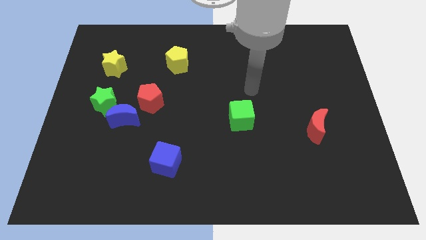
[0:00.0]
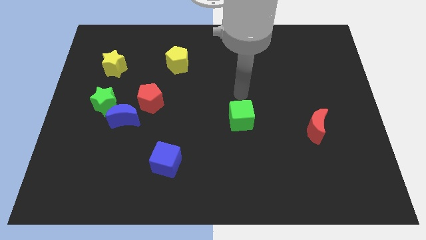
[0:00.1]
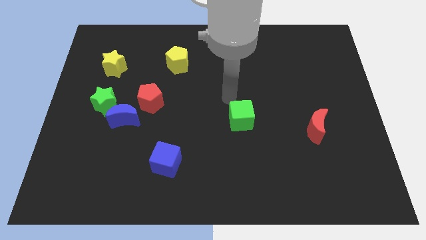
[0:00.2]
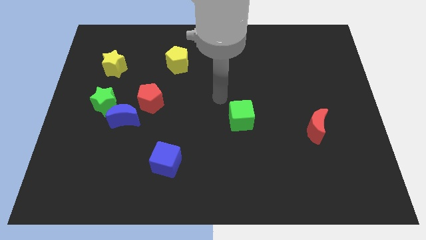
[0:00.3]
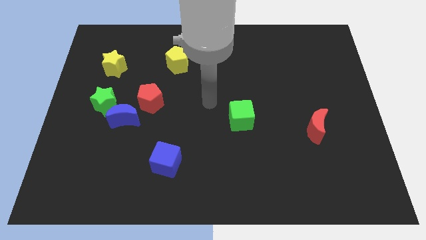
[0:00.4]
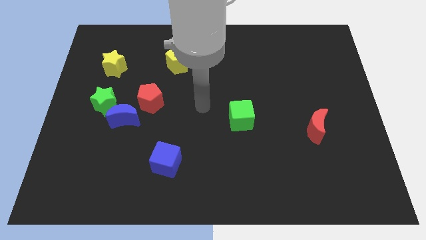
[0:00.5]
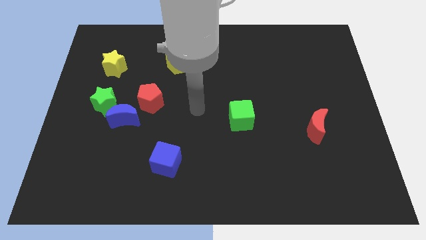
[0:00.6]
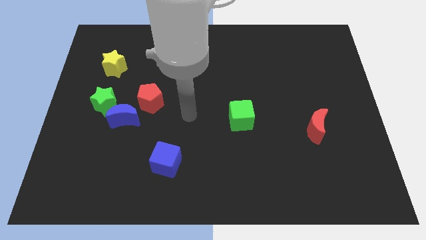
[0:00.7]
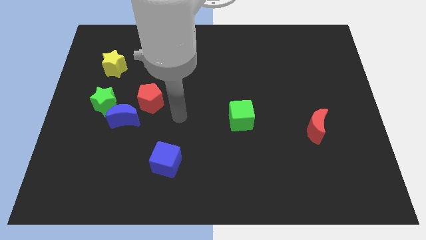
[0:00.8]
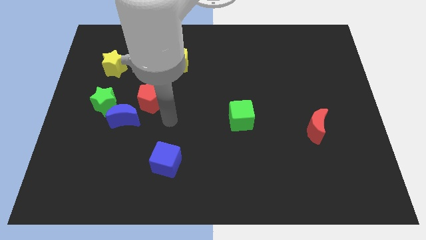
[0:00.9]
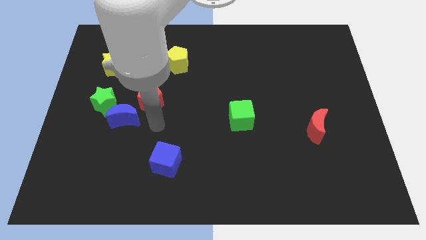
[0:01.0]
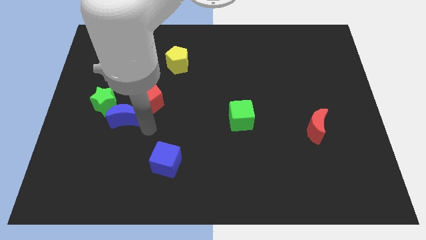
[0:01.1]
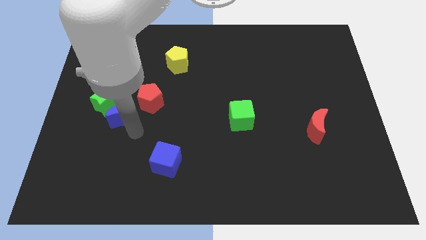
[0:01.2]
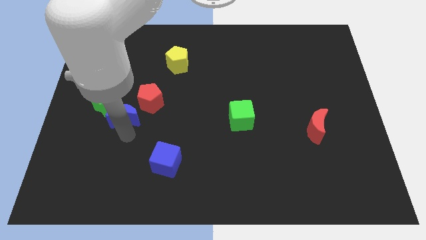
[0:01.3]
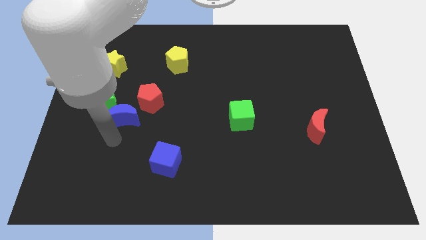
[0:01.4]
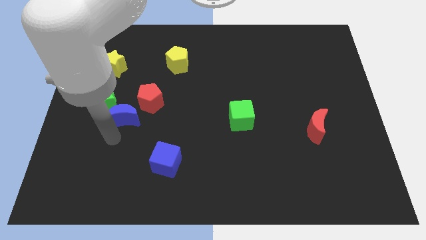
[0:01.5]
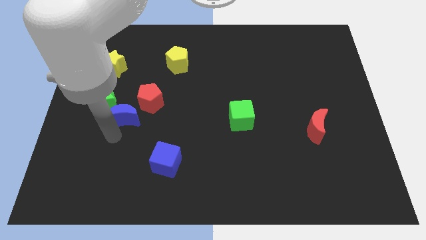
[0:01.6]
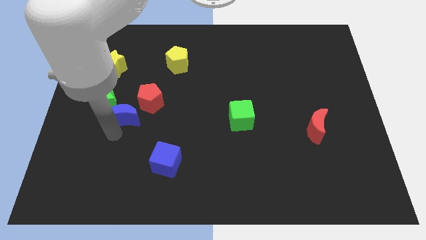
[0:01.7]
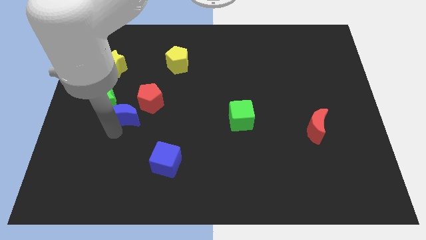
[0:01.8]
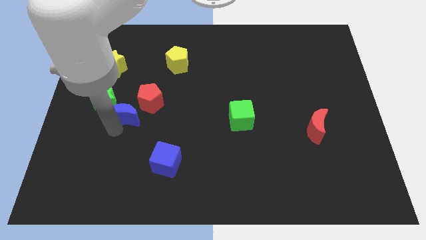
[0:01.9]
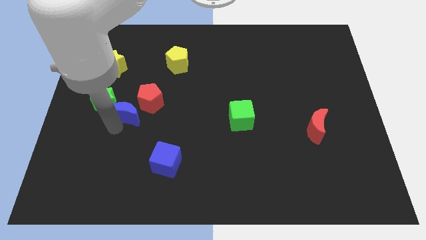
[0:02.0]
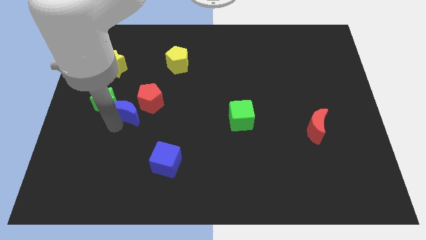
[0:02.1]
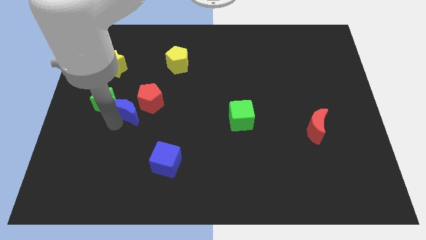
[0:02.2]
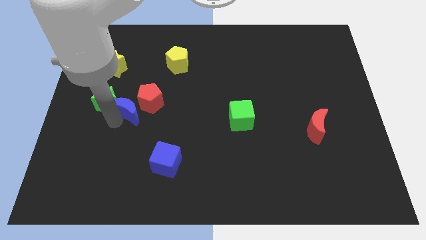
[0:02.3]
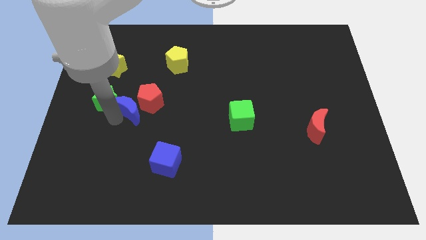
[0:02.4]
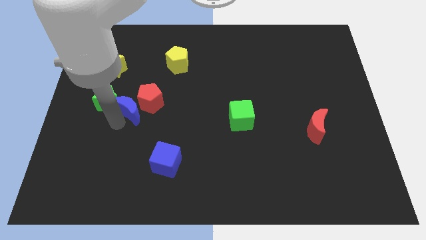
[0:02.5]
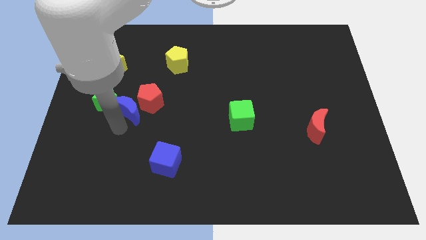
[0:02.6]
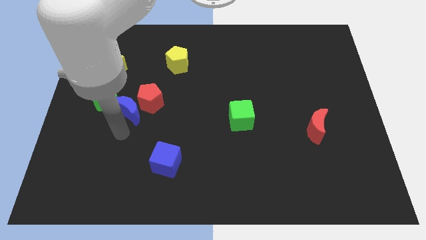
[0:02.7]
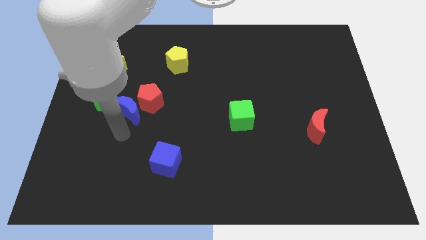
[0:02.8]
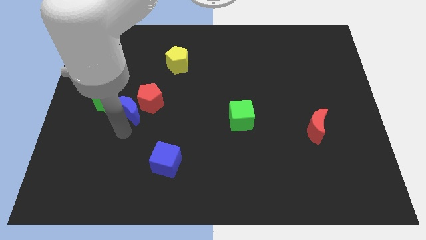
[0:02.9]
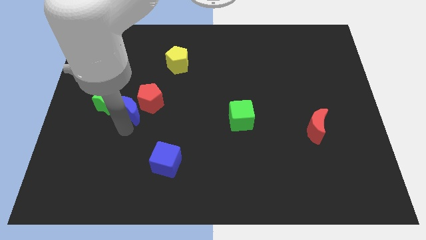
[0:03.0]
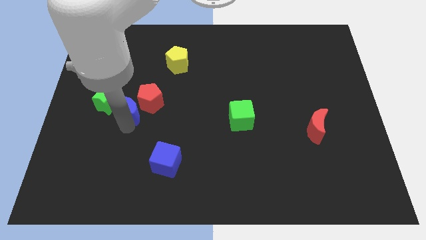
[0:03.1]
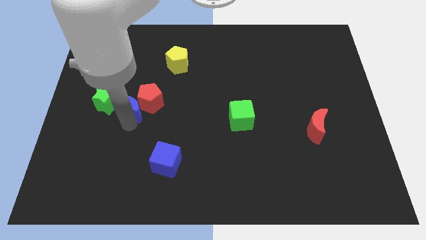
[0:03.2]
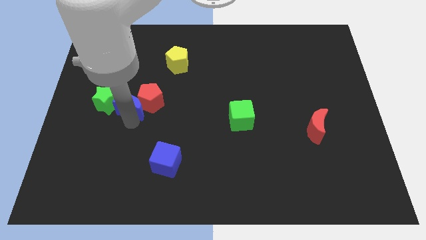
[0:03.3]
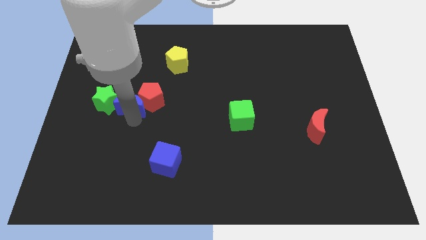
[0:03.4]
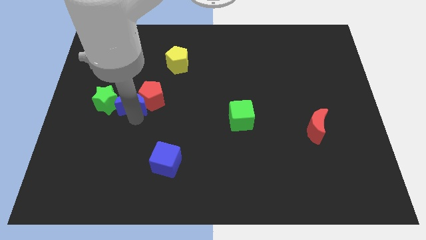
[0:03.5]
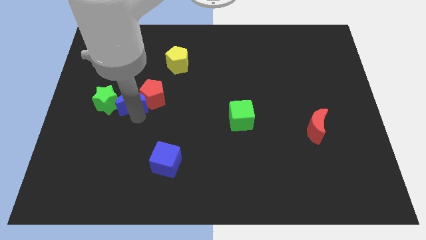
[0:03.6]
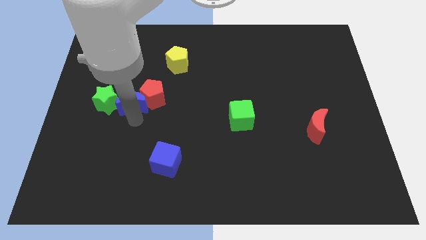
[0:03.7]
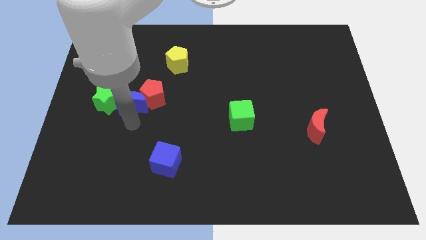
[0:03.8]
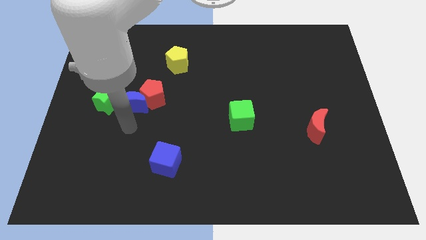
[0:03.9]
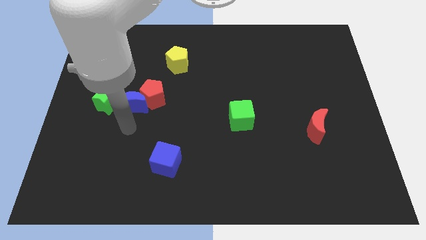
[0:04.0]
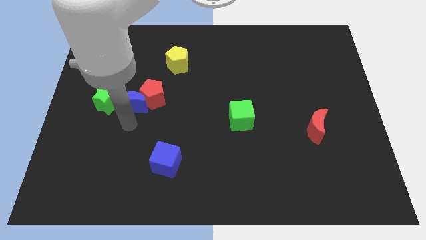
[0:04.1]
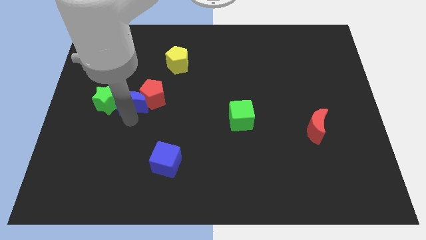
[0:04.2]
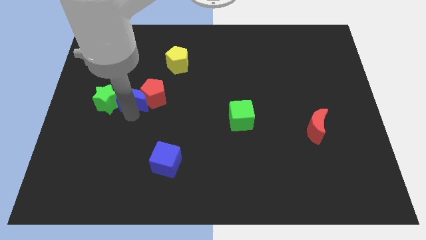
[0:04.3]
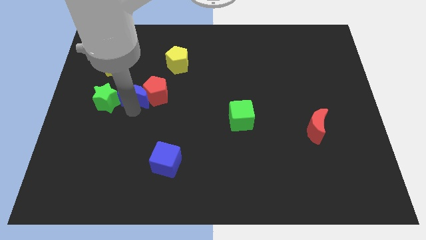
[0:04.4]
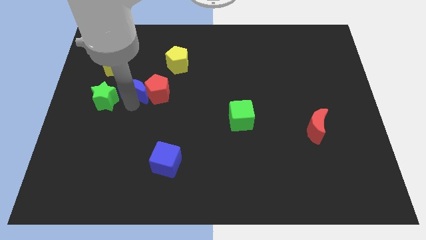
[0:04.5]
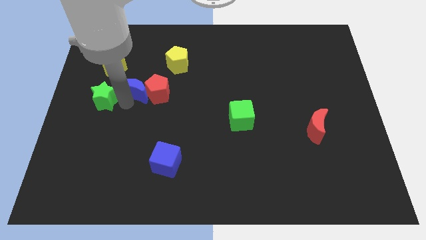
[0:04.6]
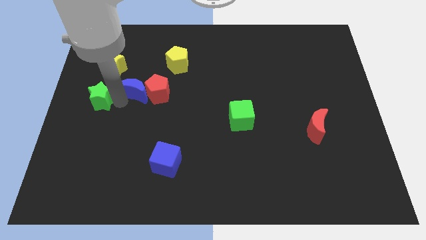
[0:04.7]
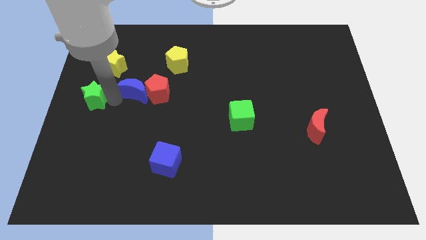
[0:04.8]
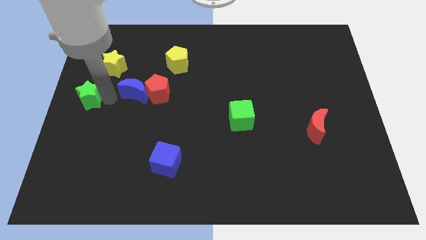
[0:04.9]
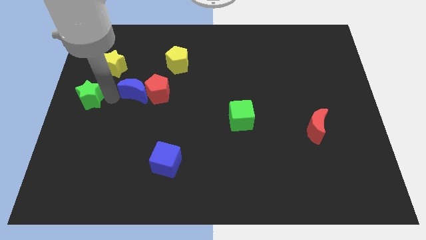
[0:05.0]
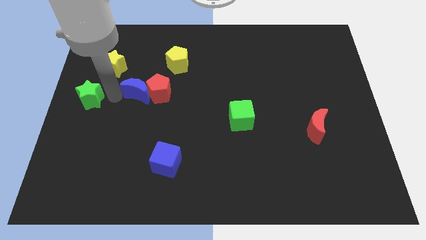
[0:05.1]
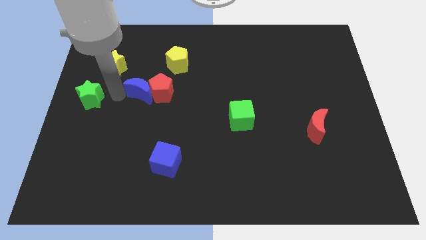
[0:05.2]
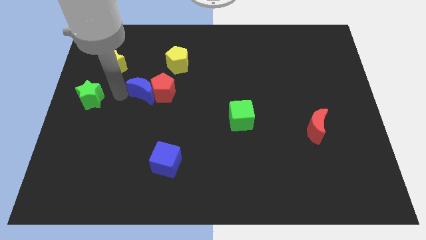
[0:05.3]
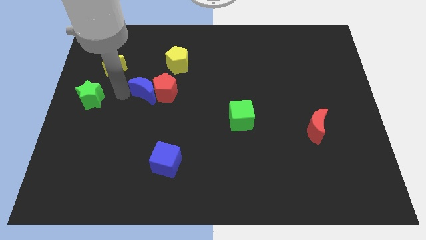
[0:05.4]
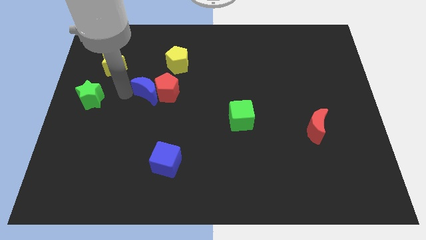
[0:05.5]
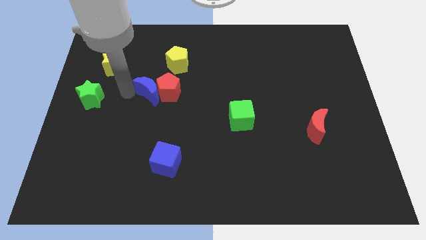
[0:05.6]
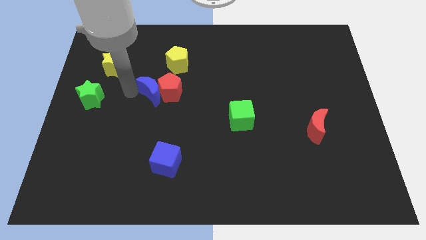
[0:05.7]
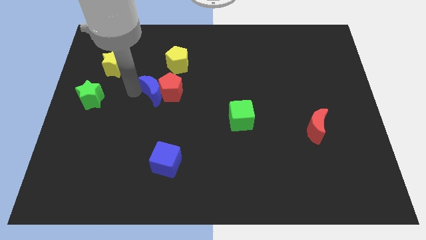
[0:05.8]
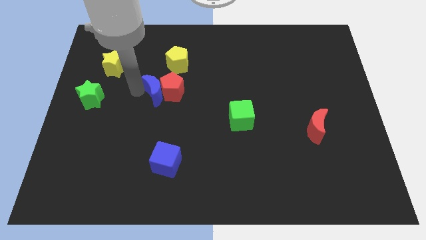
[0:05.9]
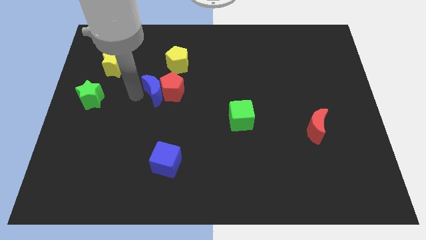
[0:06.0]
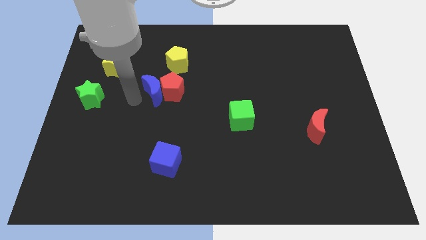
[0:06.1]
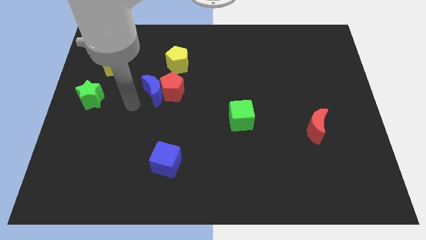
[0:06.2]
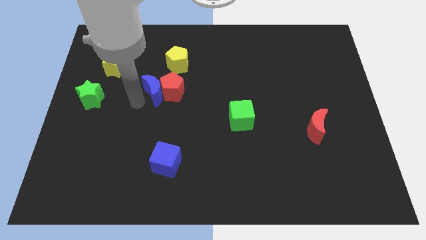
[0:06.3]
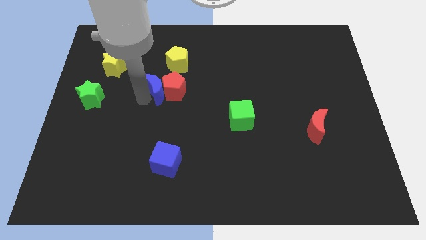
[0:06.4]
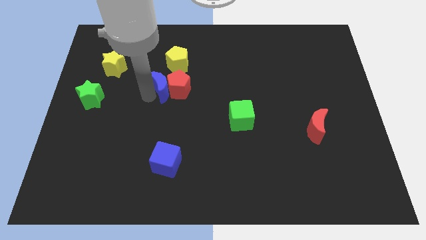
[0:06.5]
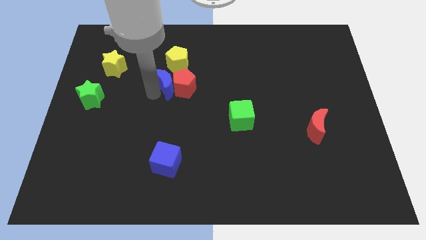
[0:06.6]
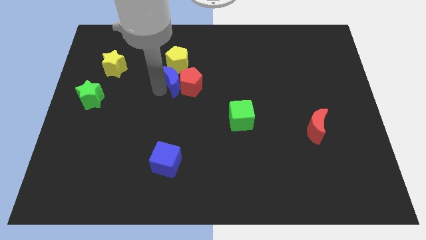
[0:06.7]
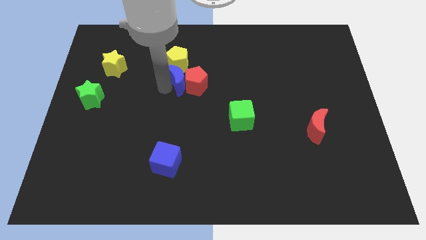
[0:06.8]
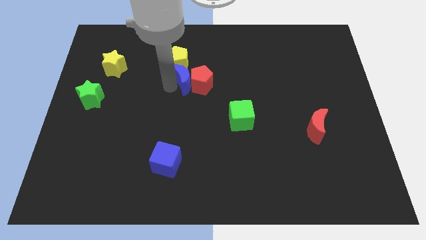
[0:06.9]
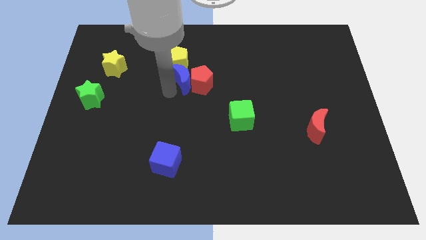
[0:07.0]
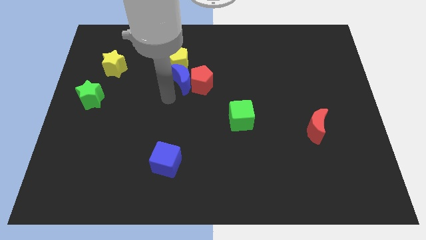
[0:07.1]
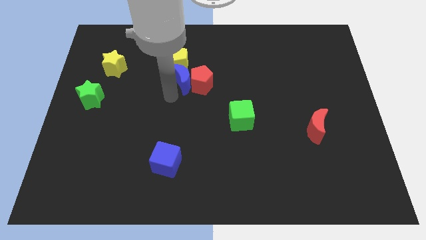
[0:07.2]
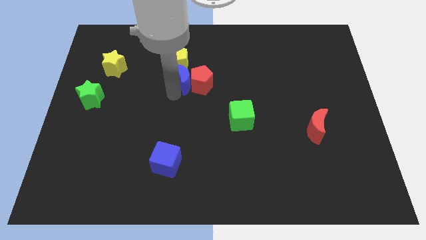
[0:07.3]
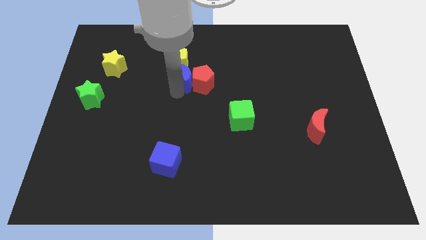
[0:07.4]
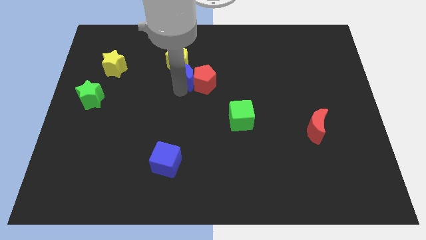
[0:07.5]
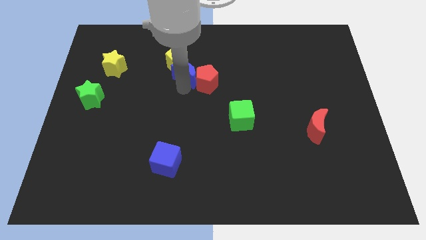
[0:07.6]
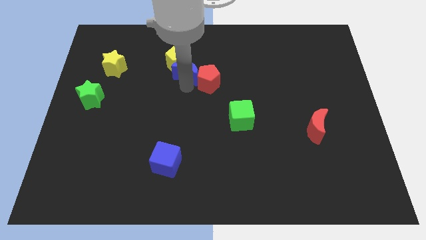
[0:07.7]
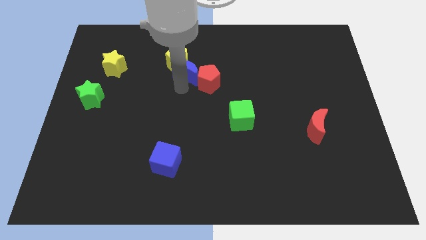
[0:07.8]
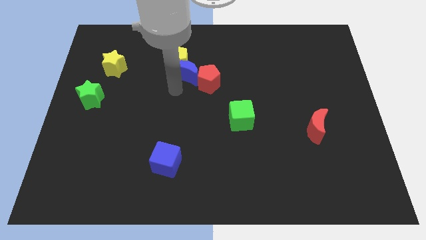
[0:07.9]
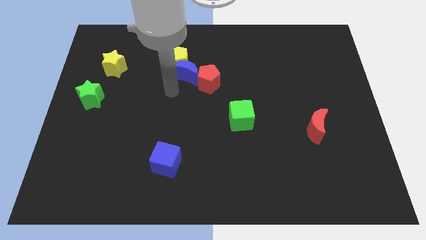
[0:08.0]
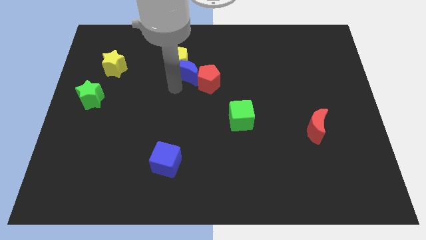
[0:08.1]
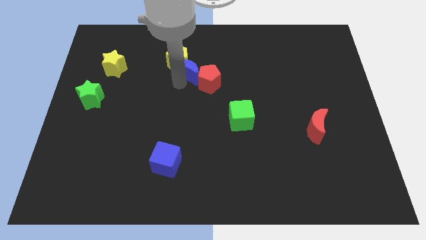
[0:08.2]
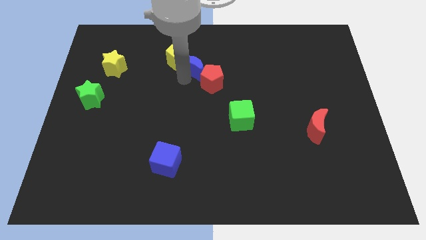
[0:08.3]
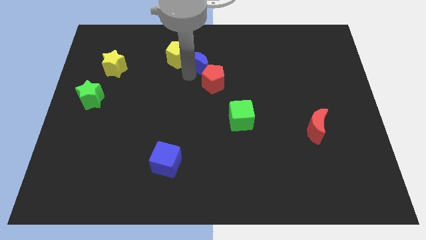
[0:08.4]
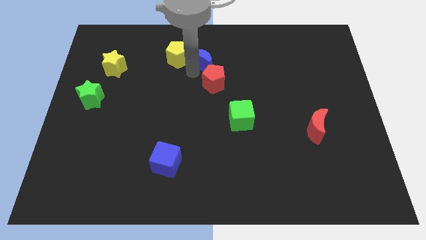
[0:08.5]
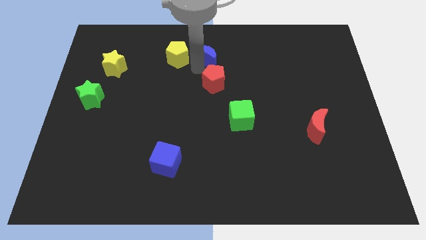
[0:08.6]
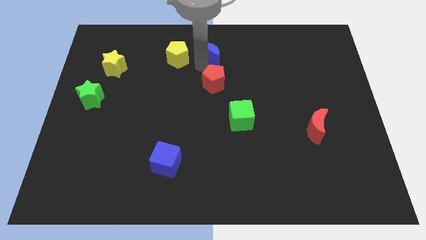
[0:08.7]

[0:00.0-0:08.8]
slide the blue moon to the top
